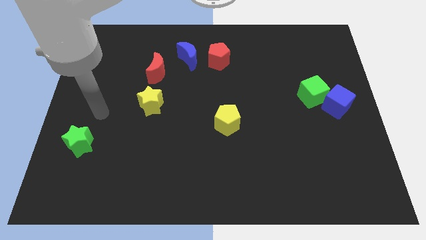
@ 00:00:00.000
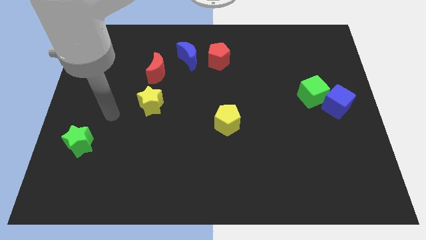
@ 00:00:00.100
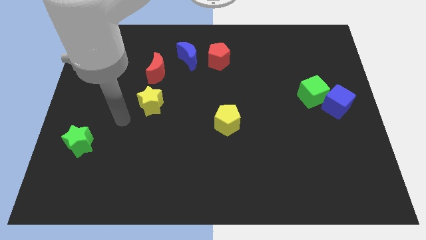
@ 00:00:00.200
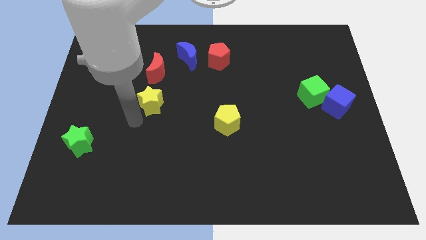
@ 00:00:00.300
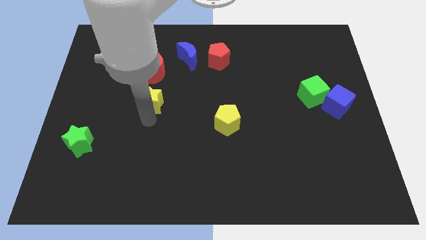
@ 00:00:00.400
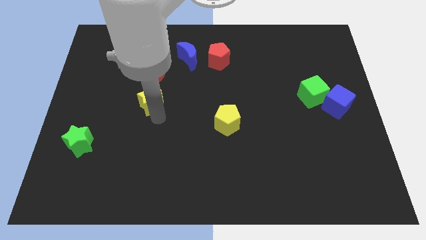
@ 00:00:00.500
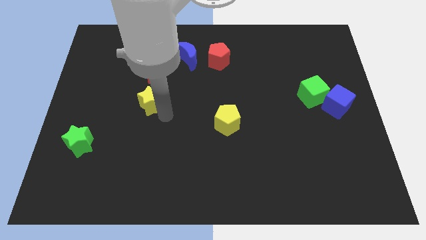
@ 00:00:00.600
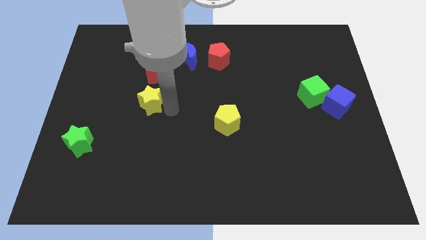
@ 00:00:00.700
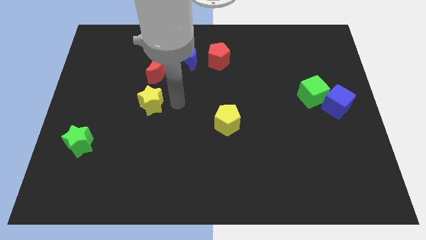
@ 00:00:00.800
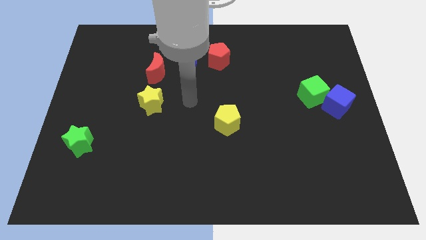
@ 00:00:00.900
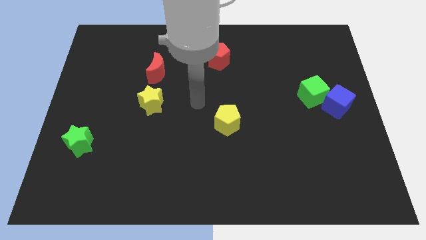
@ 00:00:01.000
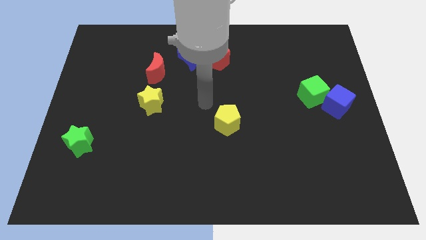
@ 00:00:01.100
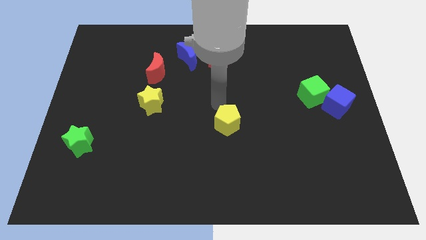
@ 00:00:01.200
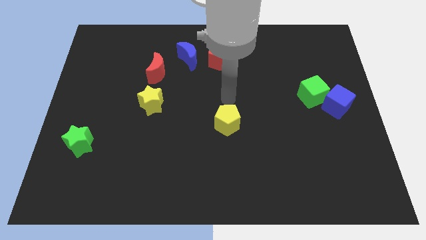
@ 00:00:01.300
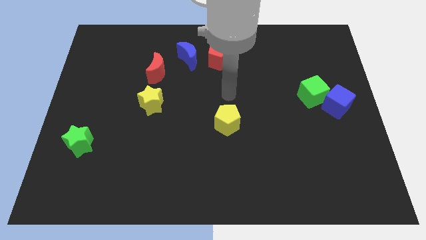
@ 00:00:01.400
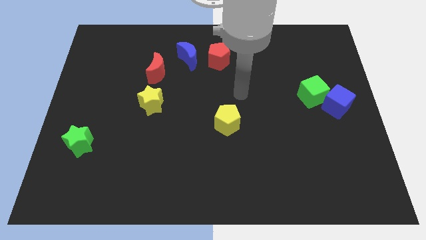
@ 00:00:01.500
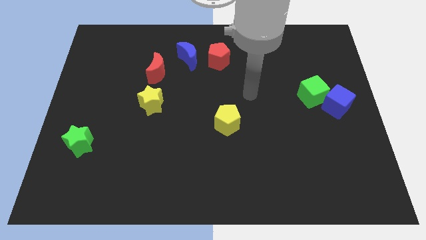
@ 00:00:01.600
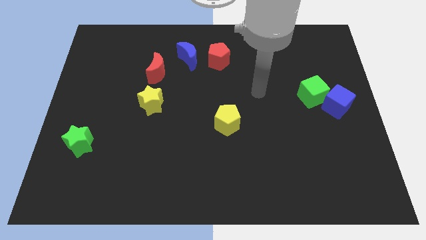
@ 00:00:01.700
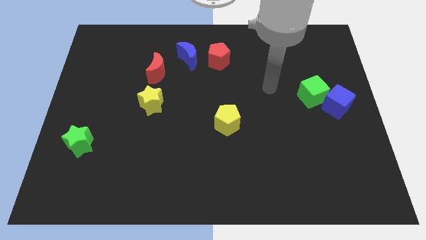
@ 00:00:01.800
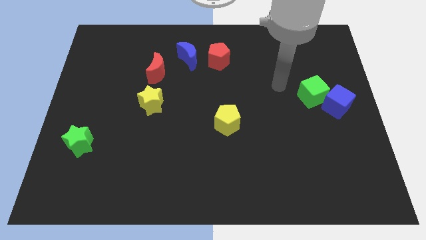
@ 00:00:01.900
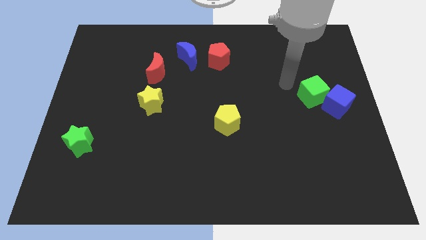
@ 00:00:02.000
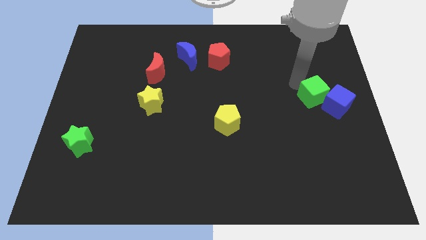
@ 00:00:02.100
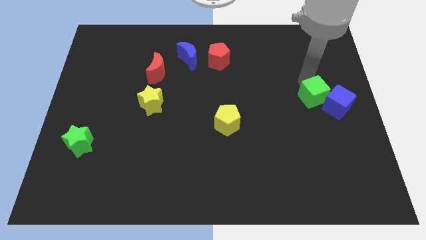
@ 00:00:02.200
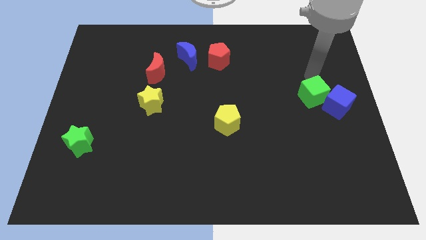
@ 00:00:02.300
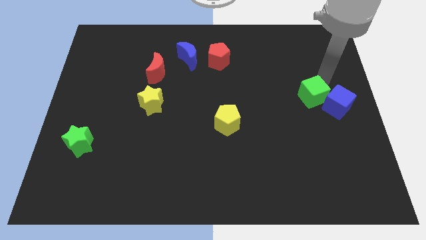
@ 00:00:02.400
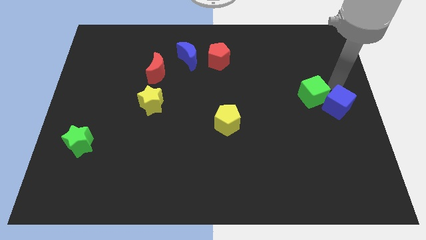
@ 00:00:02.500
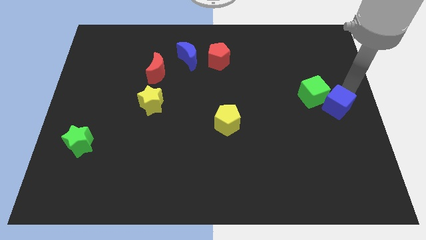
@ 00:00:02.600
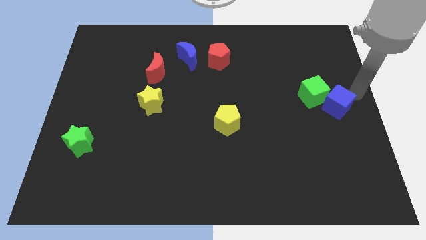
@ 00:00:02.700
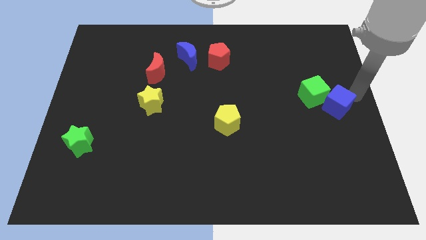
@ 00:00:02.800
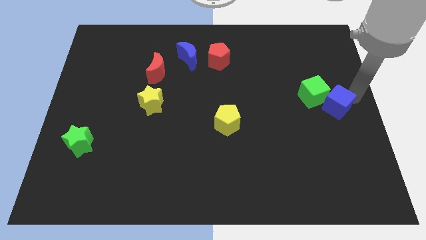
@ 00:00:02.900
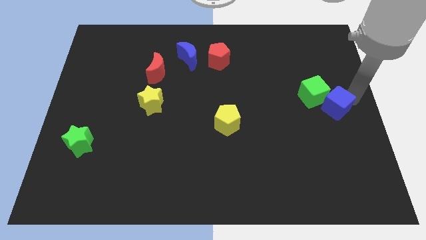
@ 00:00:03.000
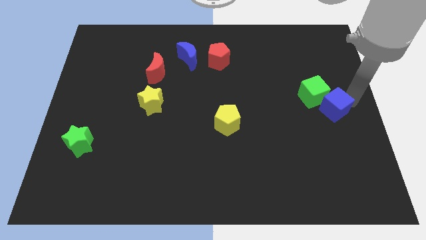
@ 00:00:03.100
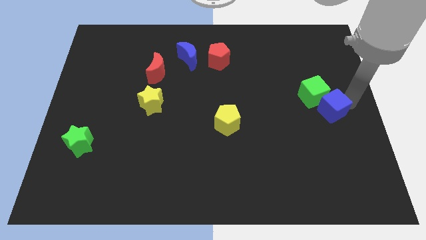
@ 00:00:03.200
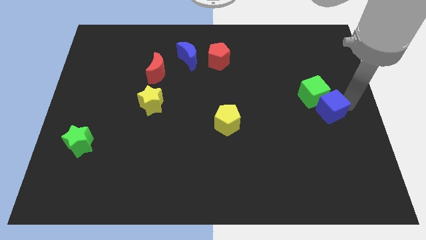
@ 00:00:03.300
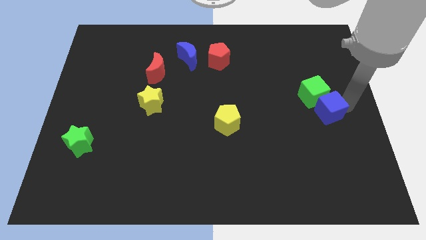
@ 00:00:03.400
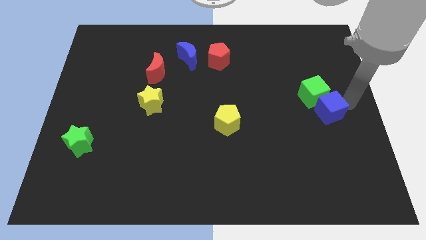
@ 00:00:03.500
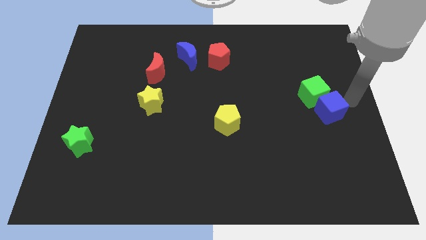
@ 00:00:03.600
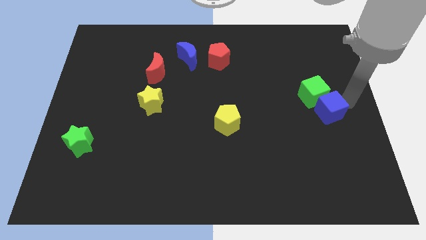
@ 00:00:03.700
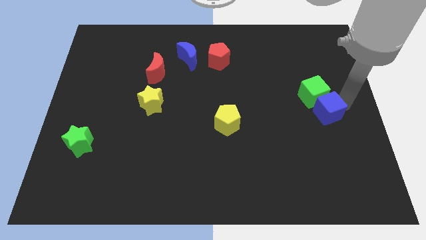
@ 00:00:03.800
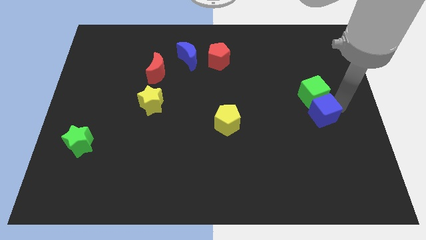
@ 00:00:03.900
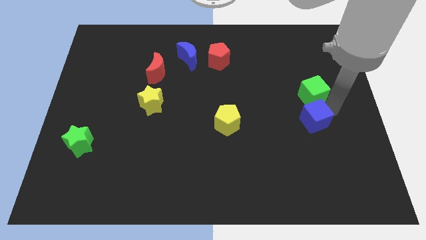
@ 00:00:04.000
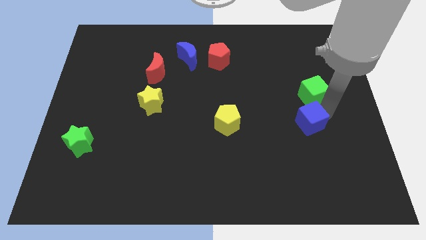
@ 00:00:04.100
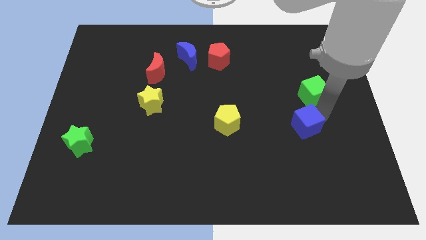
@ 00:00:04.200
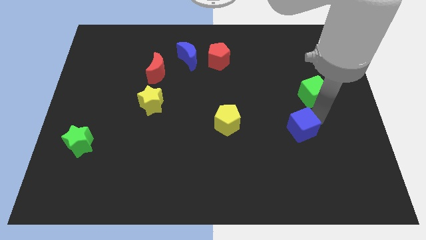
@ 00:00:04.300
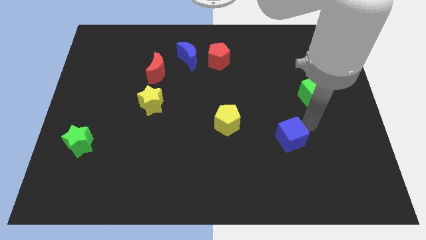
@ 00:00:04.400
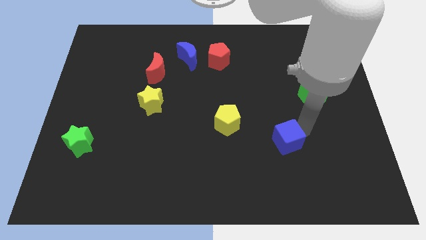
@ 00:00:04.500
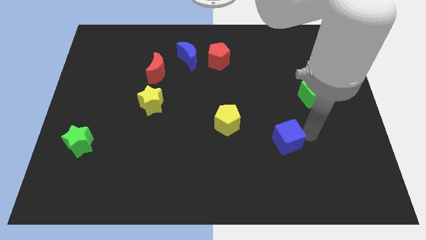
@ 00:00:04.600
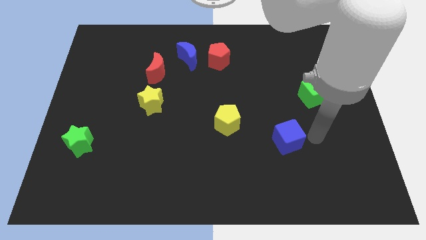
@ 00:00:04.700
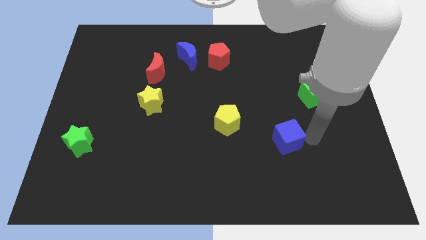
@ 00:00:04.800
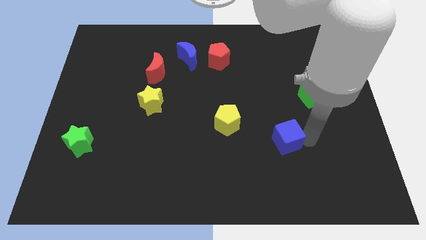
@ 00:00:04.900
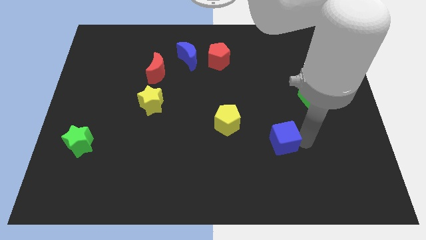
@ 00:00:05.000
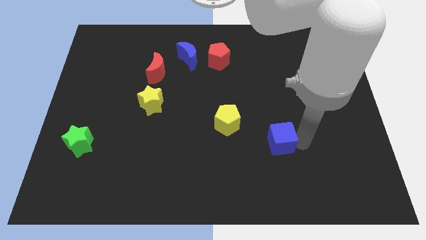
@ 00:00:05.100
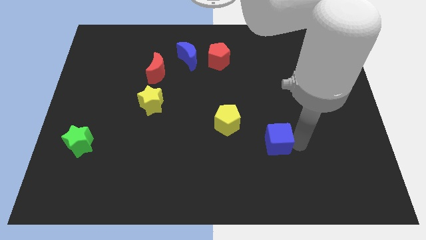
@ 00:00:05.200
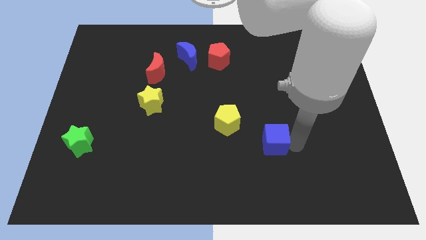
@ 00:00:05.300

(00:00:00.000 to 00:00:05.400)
move the blue cube to the bottom right side of the yellow pentagon

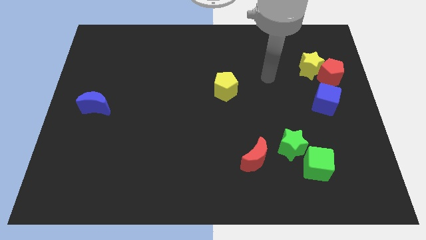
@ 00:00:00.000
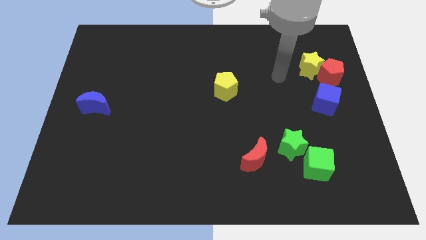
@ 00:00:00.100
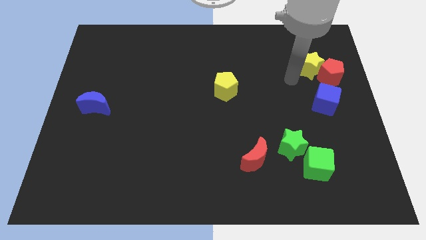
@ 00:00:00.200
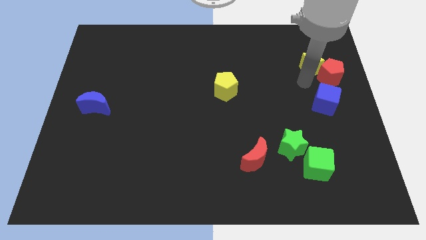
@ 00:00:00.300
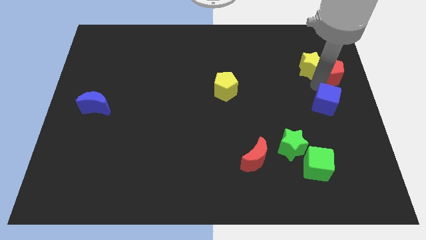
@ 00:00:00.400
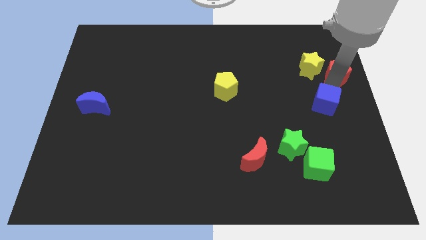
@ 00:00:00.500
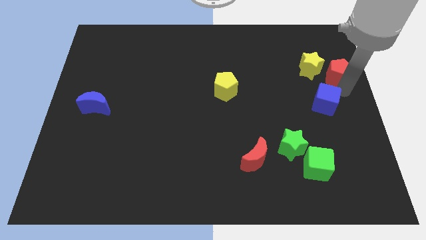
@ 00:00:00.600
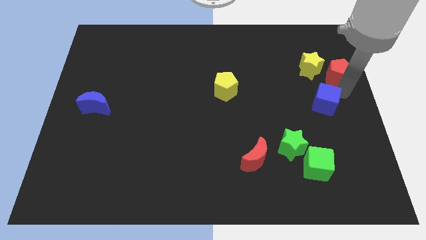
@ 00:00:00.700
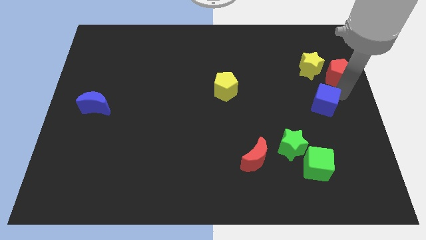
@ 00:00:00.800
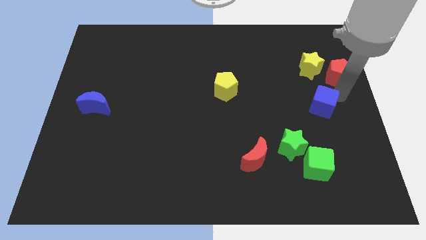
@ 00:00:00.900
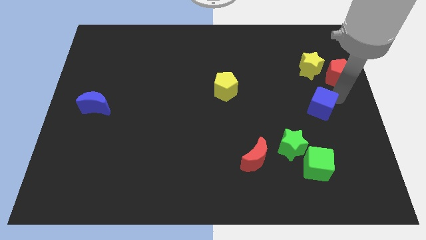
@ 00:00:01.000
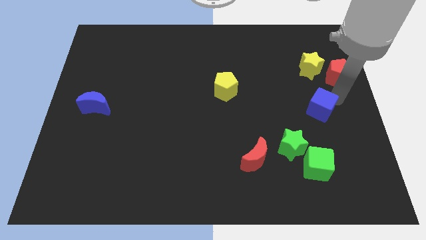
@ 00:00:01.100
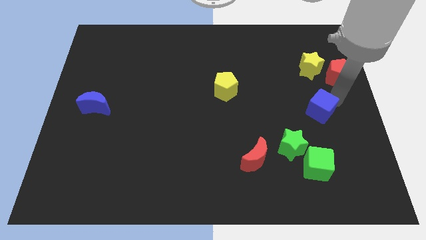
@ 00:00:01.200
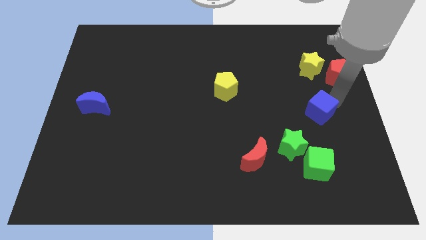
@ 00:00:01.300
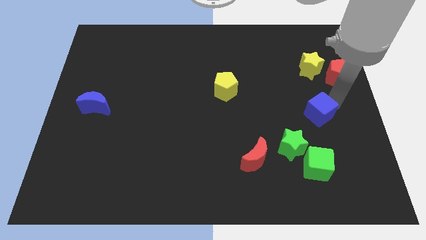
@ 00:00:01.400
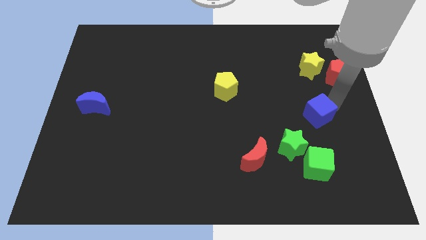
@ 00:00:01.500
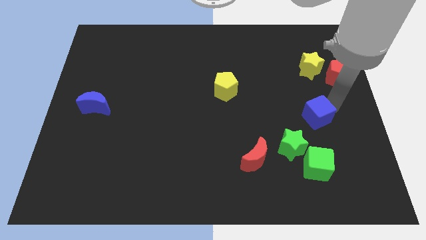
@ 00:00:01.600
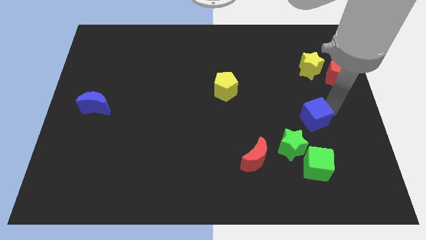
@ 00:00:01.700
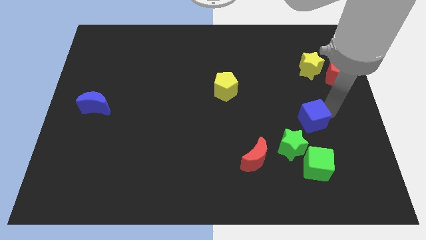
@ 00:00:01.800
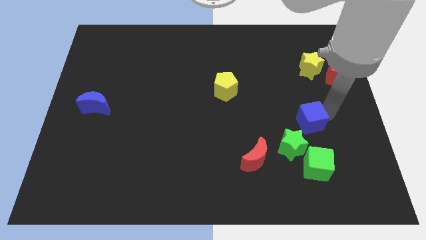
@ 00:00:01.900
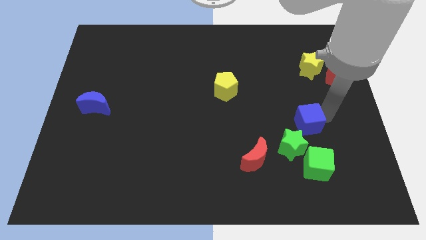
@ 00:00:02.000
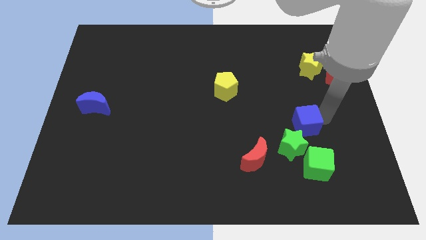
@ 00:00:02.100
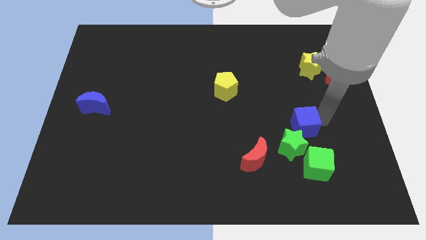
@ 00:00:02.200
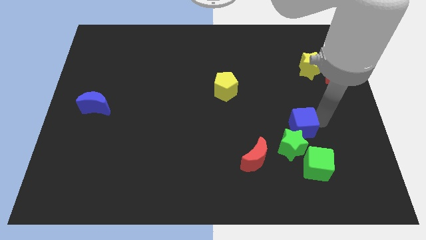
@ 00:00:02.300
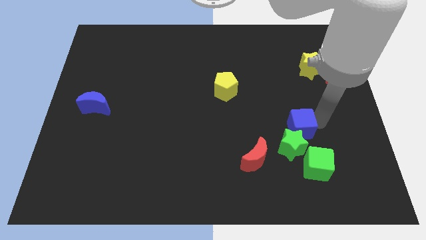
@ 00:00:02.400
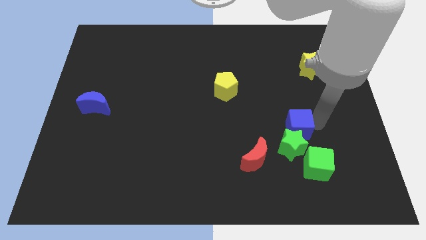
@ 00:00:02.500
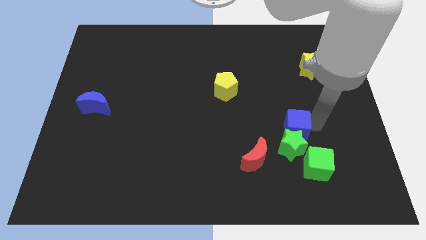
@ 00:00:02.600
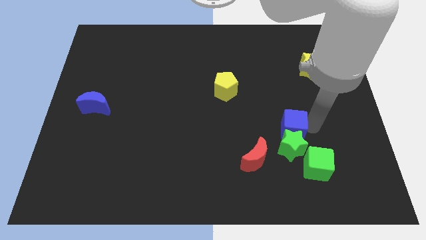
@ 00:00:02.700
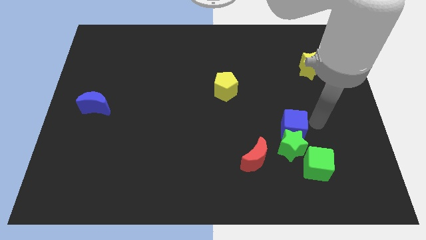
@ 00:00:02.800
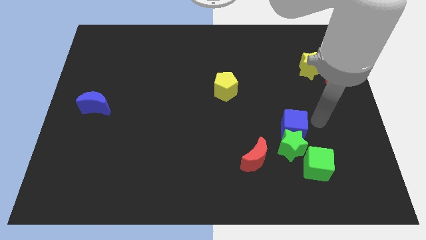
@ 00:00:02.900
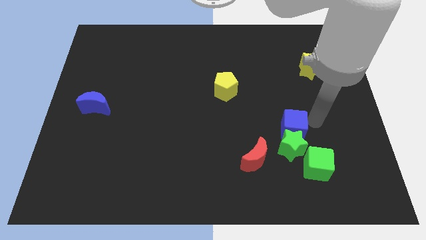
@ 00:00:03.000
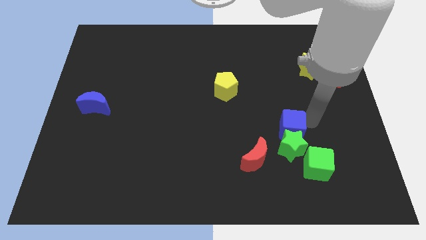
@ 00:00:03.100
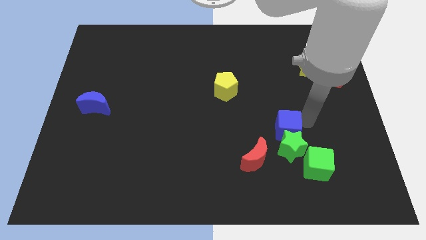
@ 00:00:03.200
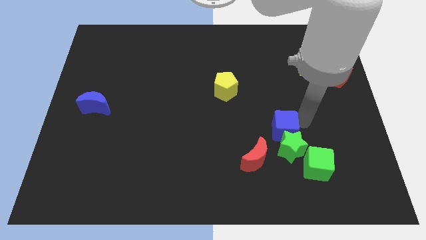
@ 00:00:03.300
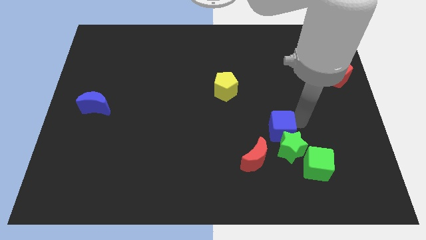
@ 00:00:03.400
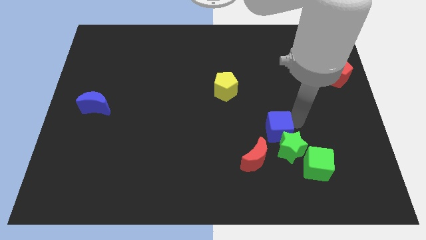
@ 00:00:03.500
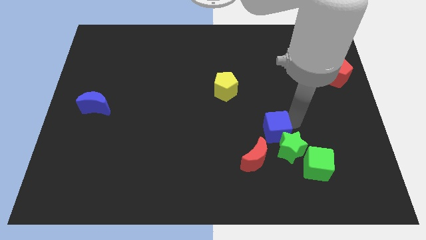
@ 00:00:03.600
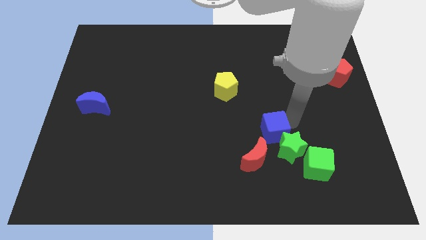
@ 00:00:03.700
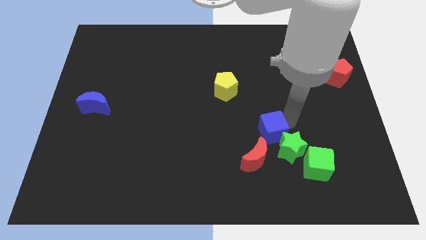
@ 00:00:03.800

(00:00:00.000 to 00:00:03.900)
slide the blue cube just left of the green star
